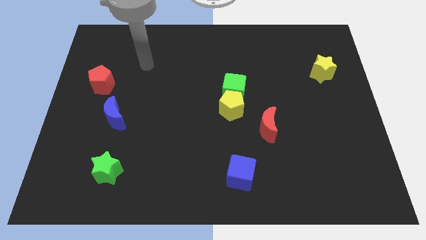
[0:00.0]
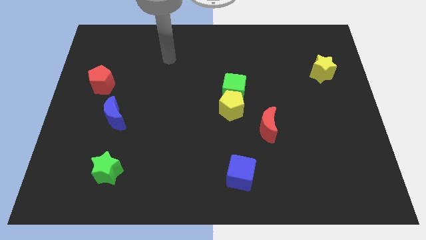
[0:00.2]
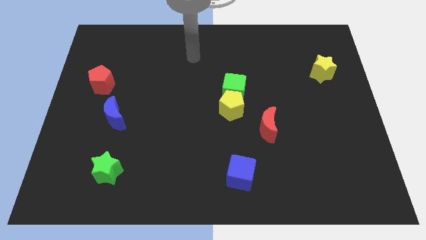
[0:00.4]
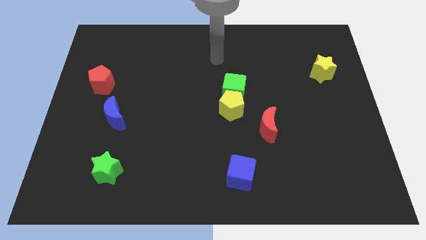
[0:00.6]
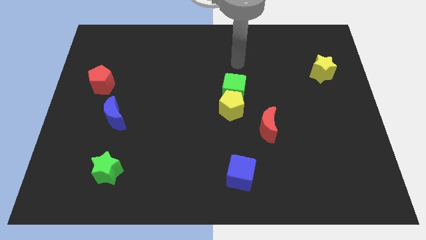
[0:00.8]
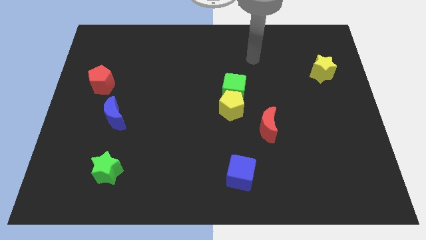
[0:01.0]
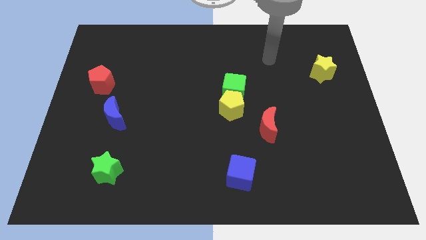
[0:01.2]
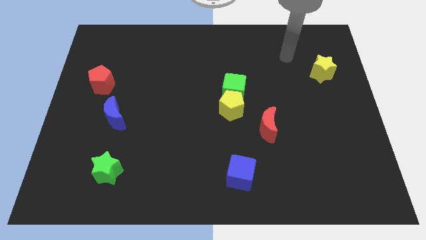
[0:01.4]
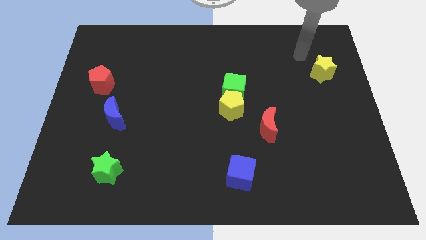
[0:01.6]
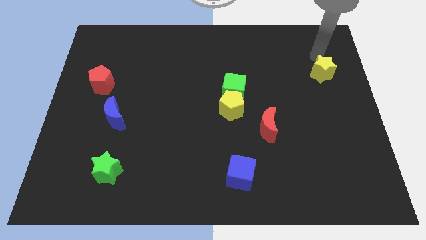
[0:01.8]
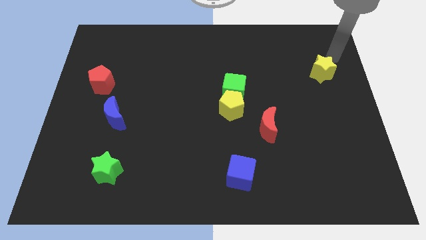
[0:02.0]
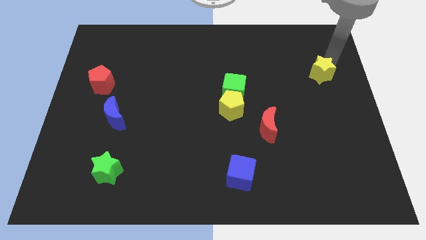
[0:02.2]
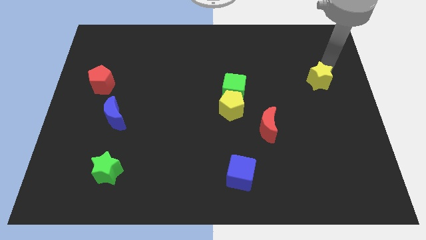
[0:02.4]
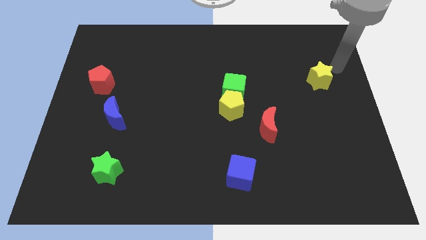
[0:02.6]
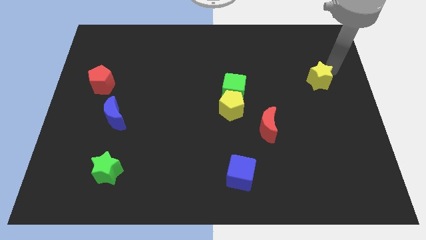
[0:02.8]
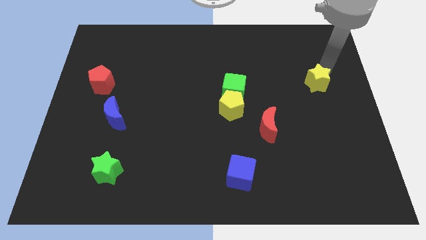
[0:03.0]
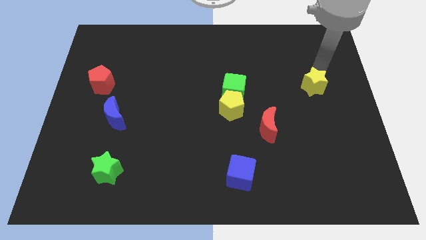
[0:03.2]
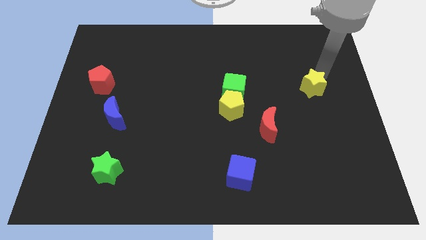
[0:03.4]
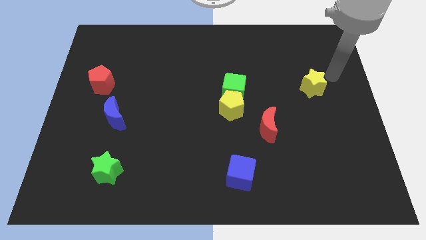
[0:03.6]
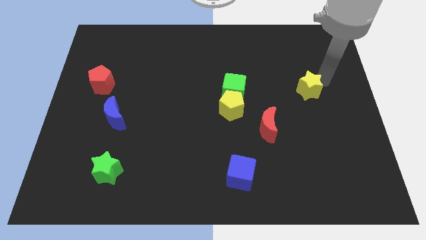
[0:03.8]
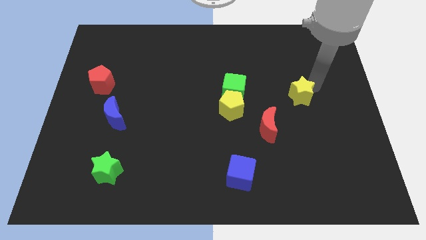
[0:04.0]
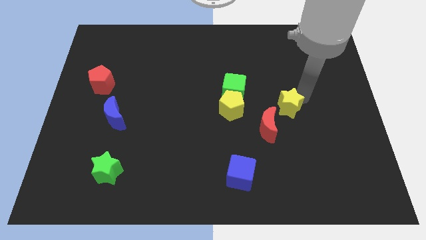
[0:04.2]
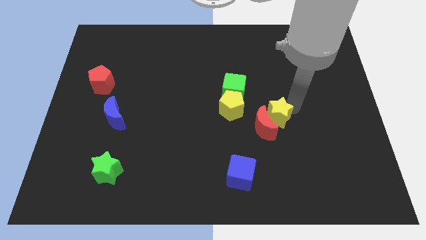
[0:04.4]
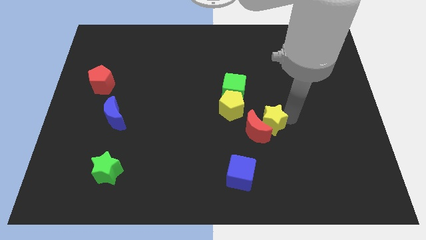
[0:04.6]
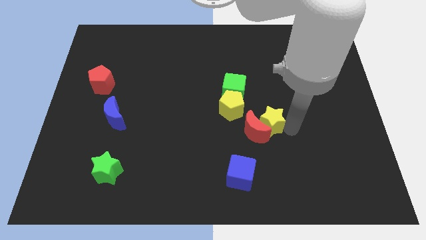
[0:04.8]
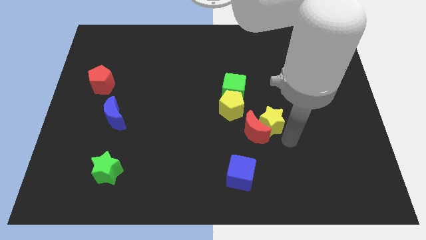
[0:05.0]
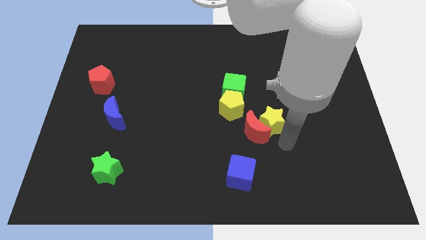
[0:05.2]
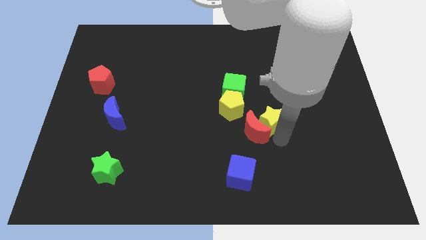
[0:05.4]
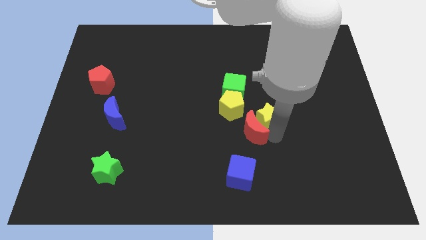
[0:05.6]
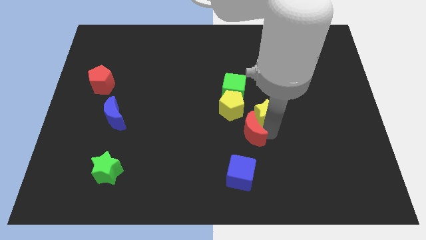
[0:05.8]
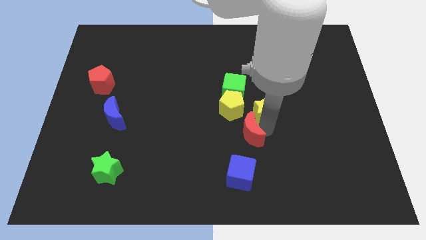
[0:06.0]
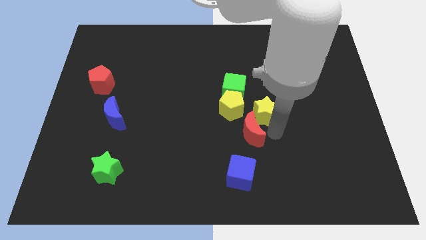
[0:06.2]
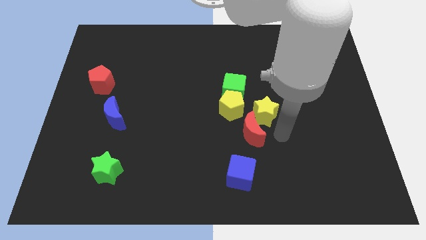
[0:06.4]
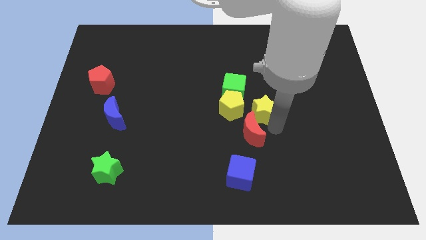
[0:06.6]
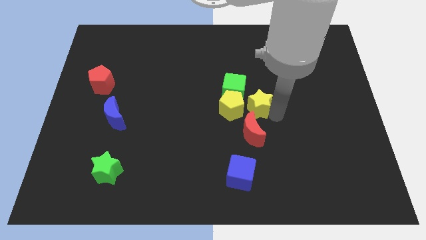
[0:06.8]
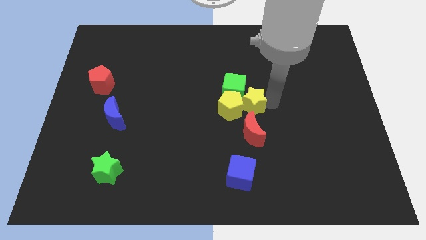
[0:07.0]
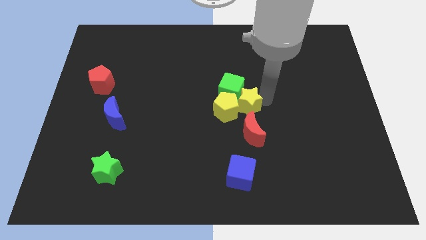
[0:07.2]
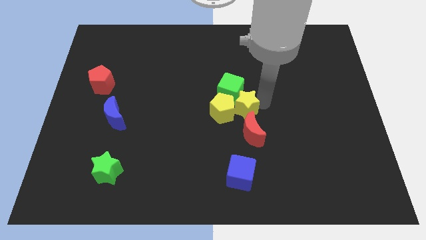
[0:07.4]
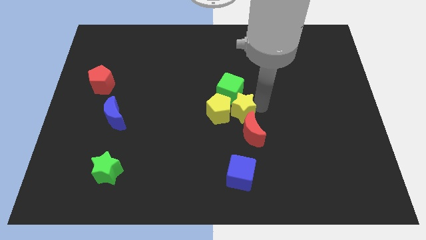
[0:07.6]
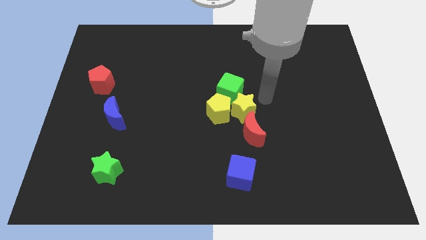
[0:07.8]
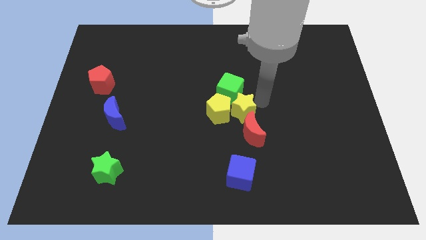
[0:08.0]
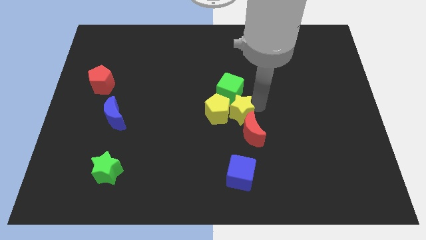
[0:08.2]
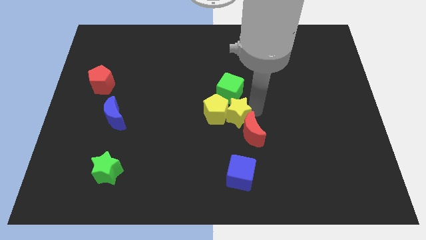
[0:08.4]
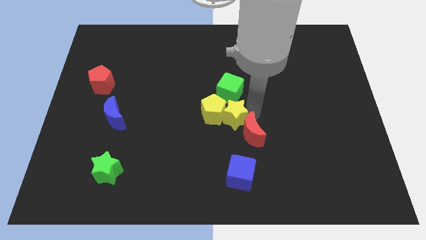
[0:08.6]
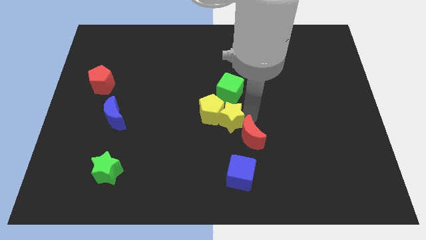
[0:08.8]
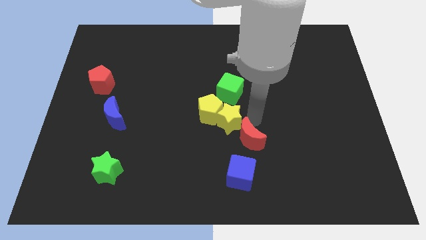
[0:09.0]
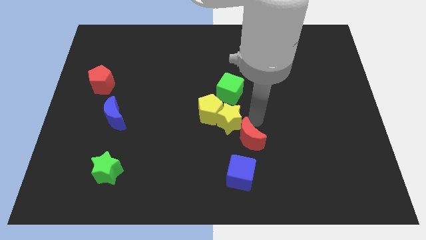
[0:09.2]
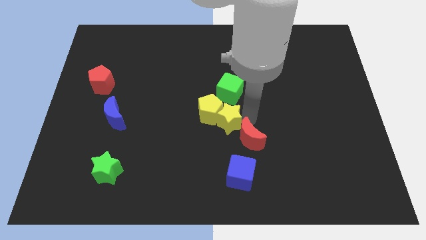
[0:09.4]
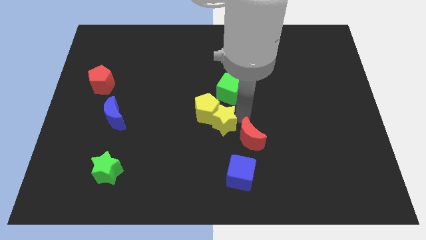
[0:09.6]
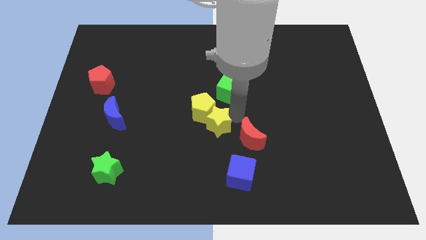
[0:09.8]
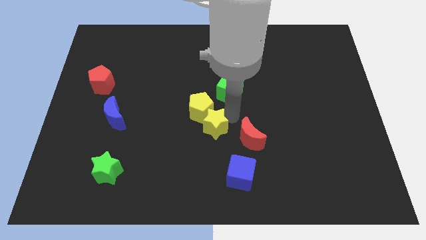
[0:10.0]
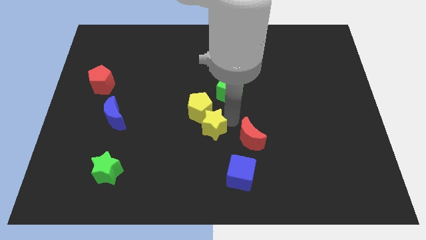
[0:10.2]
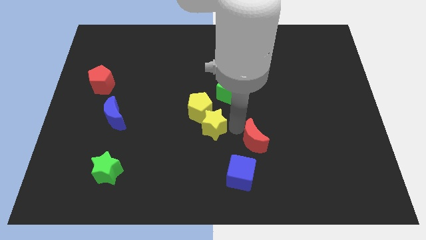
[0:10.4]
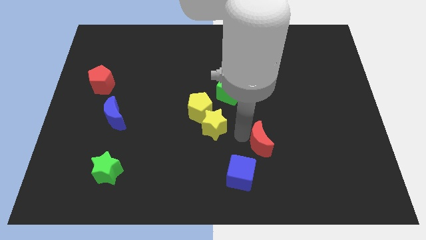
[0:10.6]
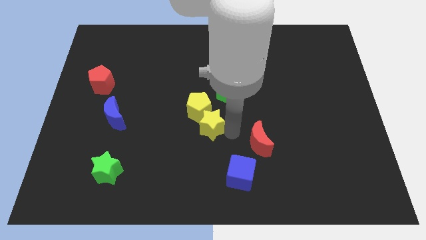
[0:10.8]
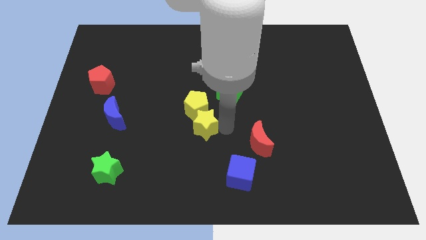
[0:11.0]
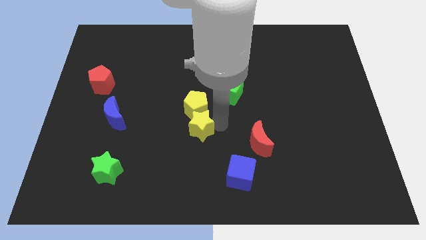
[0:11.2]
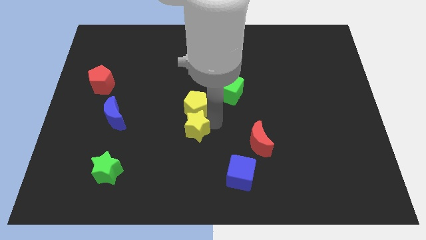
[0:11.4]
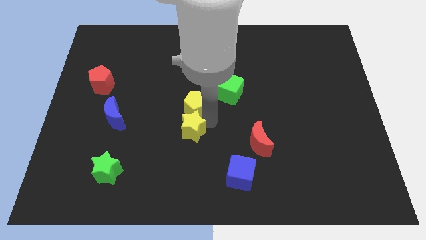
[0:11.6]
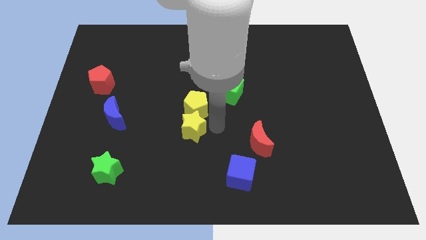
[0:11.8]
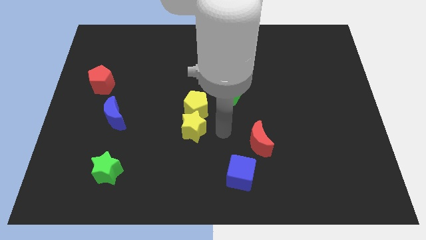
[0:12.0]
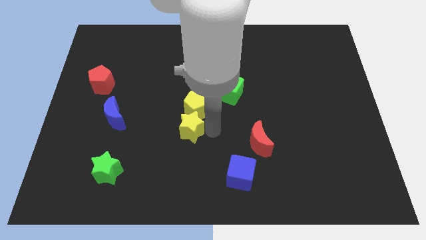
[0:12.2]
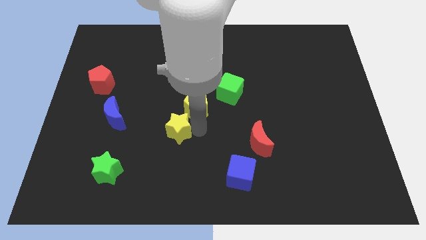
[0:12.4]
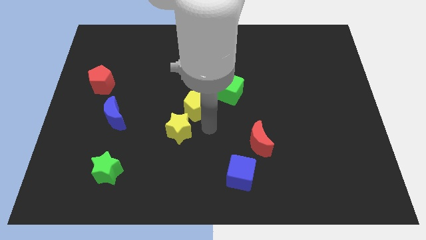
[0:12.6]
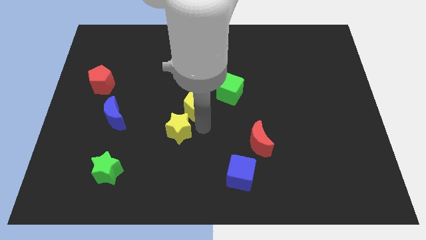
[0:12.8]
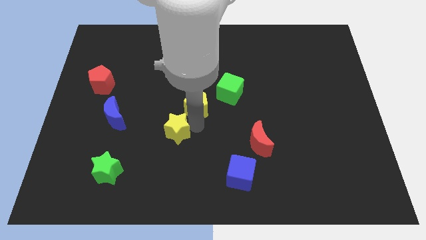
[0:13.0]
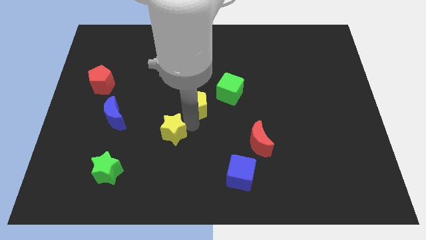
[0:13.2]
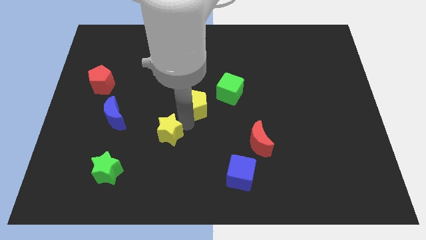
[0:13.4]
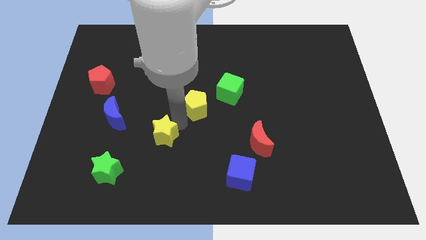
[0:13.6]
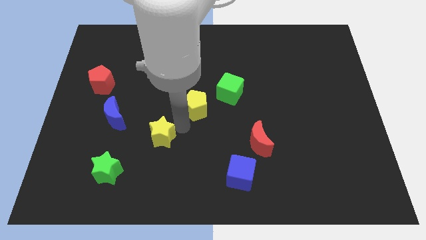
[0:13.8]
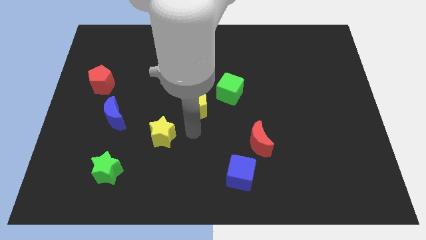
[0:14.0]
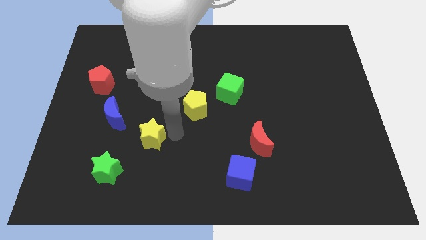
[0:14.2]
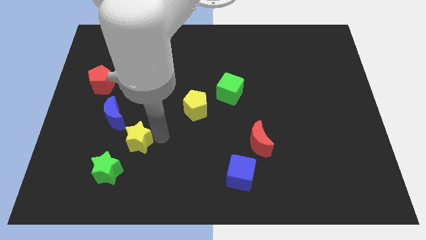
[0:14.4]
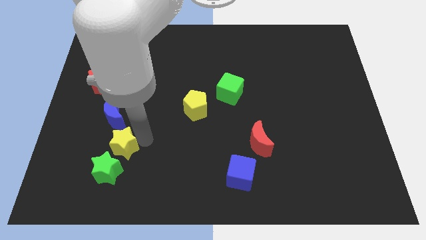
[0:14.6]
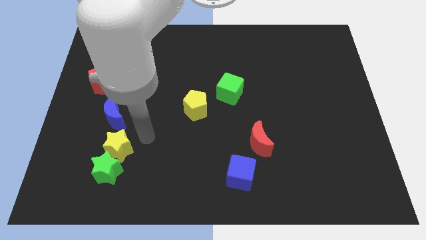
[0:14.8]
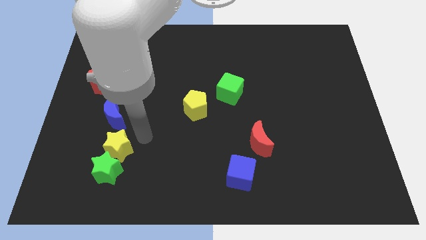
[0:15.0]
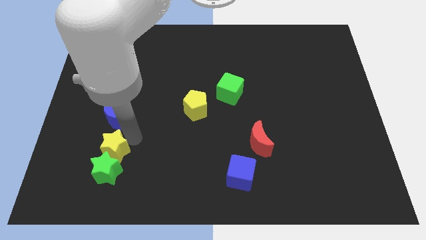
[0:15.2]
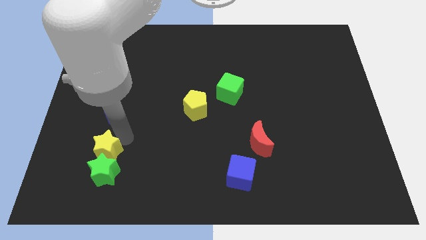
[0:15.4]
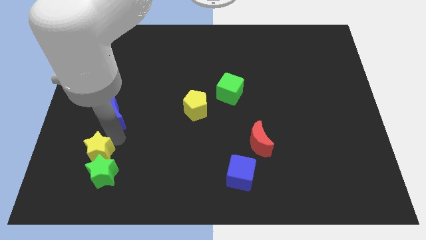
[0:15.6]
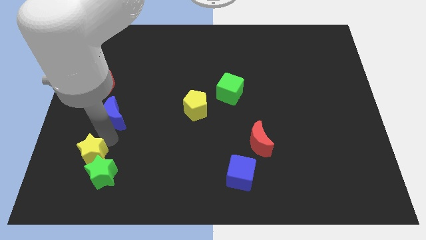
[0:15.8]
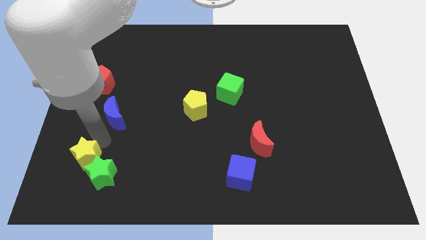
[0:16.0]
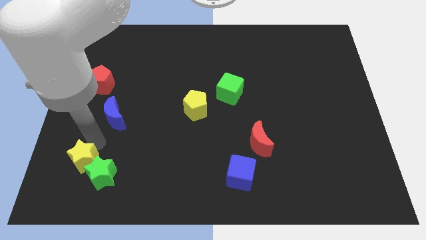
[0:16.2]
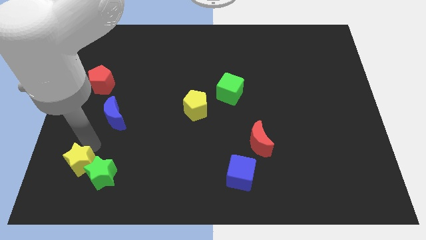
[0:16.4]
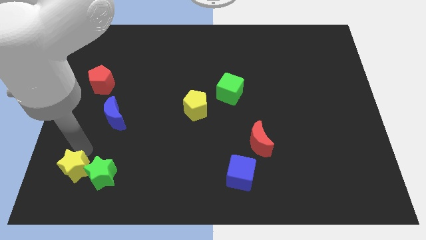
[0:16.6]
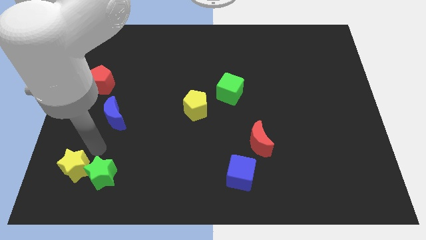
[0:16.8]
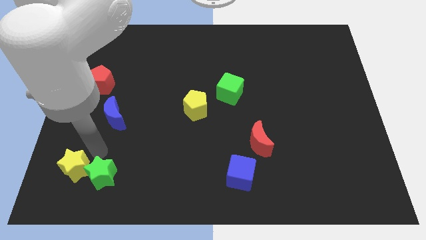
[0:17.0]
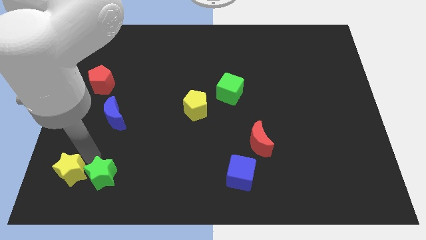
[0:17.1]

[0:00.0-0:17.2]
put the yellow star to the lower left corner
